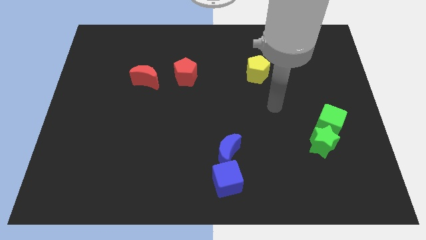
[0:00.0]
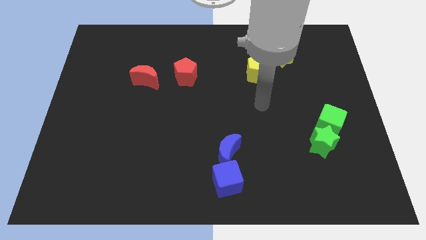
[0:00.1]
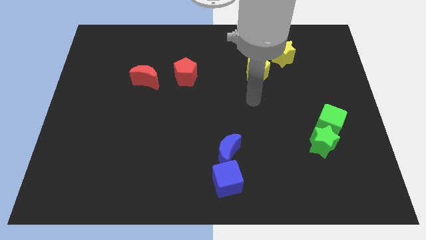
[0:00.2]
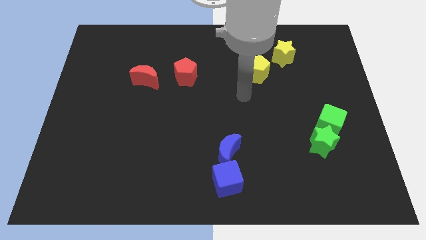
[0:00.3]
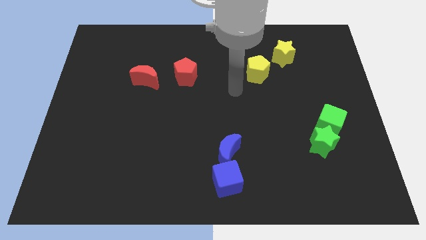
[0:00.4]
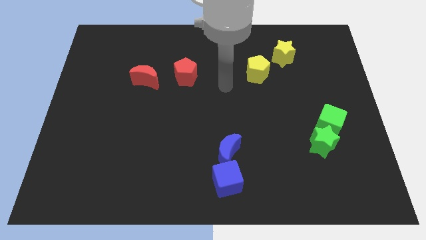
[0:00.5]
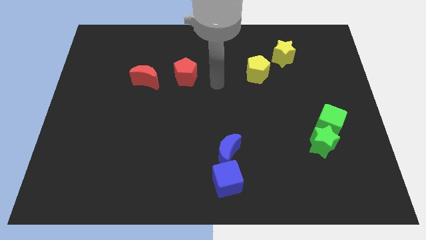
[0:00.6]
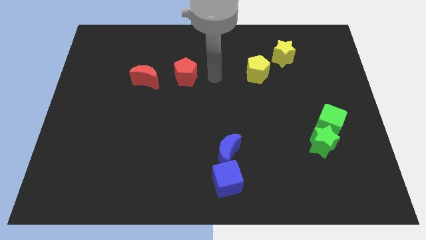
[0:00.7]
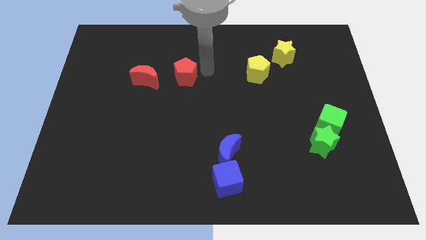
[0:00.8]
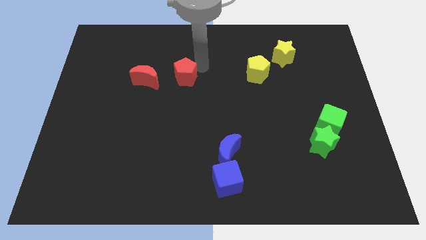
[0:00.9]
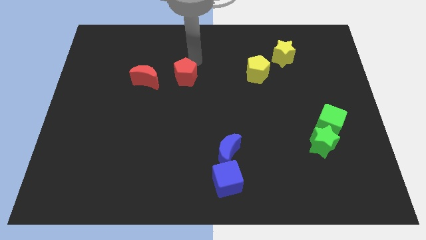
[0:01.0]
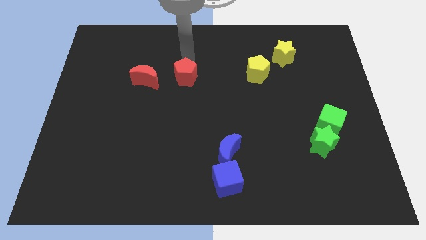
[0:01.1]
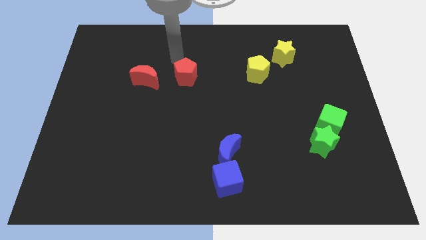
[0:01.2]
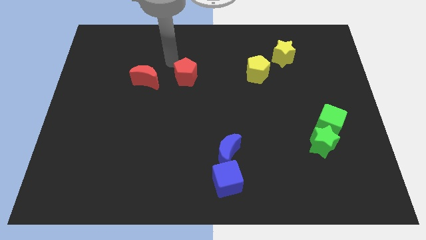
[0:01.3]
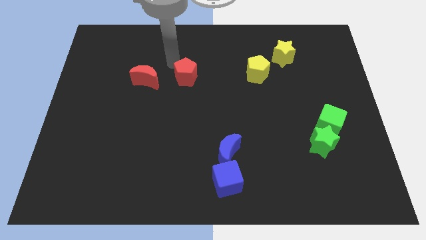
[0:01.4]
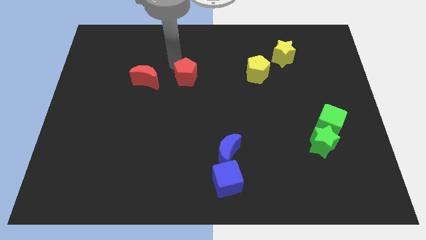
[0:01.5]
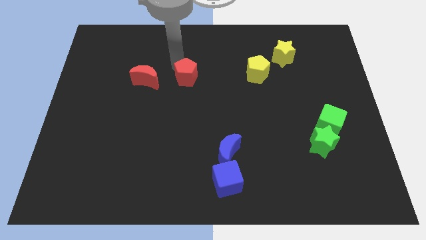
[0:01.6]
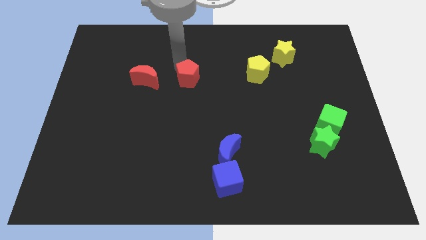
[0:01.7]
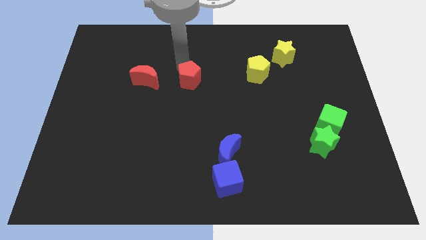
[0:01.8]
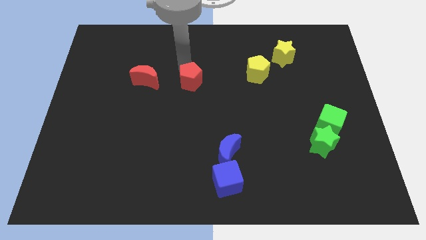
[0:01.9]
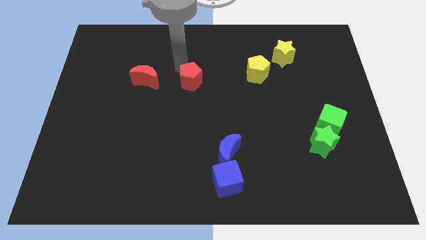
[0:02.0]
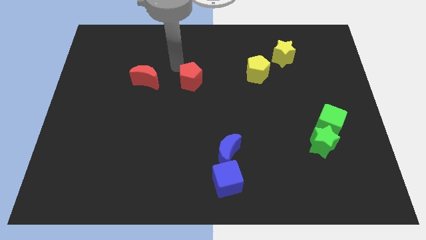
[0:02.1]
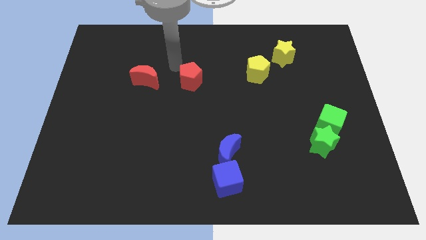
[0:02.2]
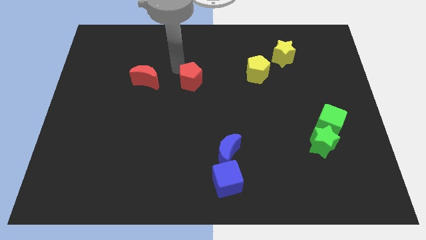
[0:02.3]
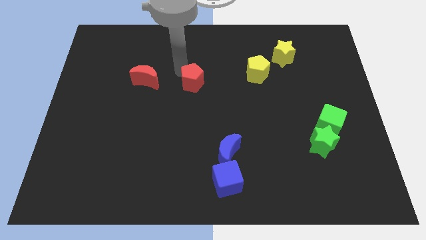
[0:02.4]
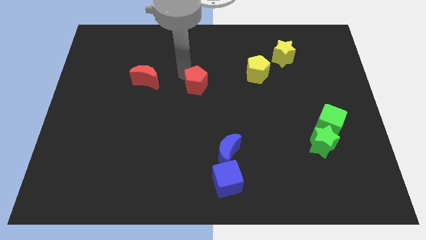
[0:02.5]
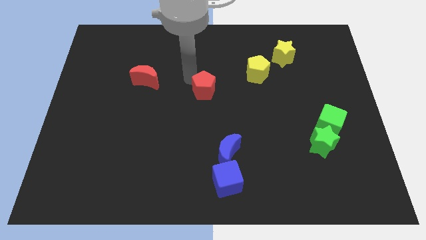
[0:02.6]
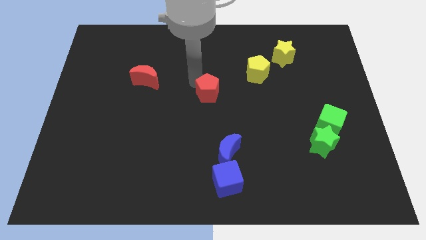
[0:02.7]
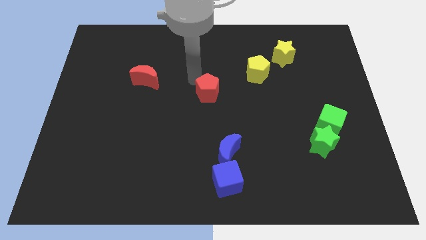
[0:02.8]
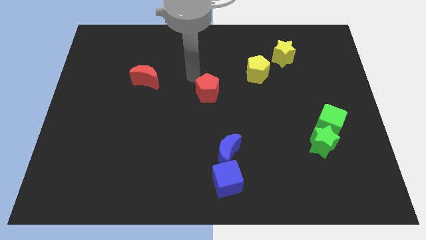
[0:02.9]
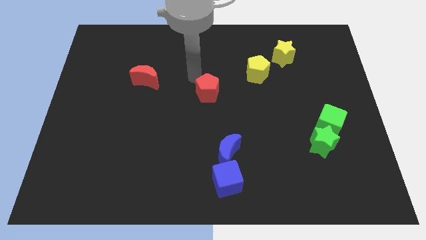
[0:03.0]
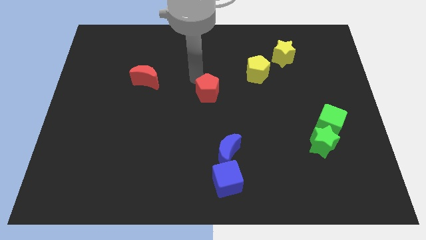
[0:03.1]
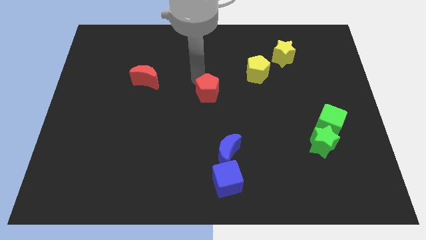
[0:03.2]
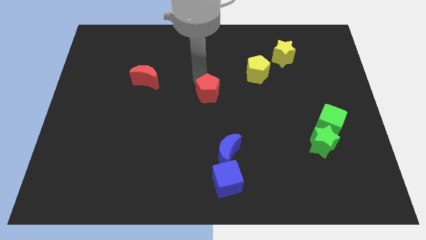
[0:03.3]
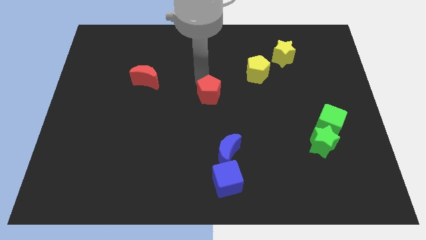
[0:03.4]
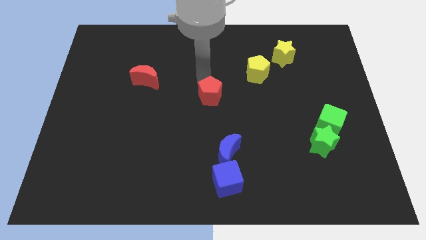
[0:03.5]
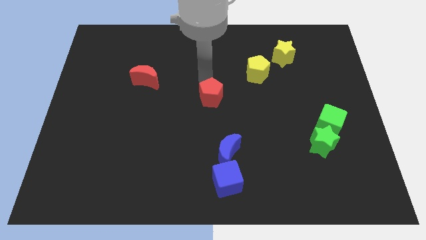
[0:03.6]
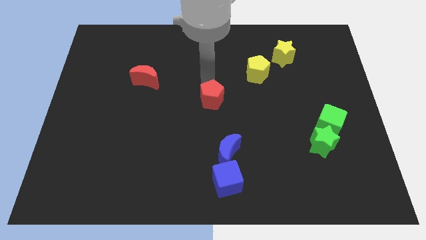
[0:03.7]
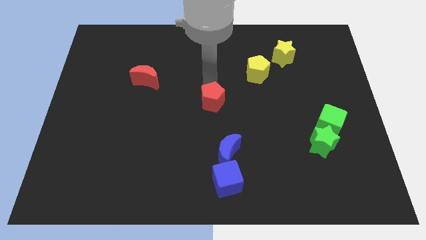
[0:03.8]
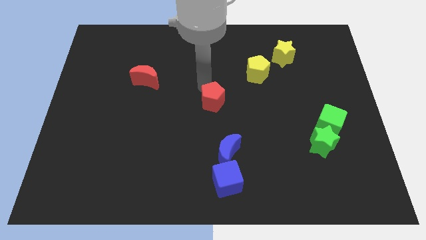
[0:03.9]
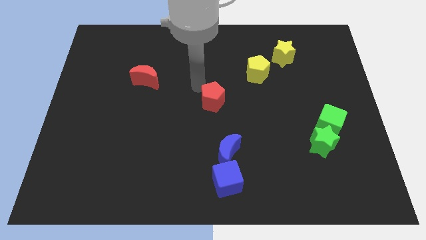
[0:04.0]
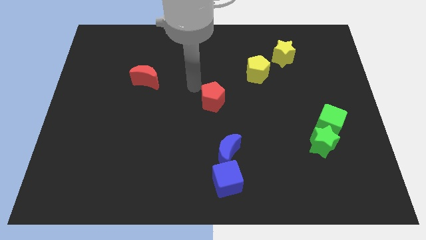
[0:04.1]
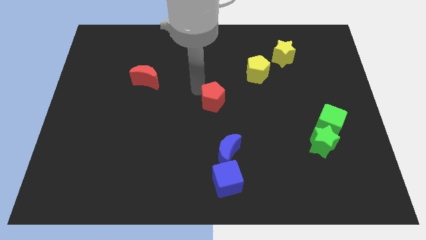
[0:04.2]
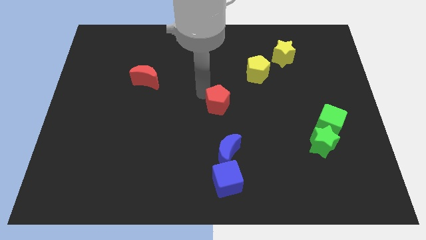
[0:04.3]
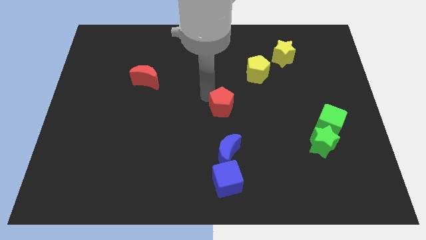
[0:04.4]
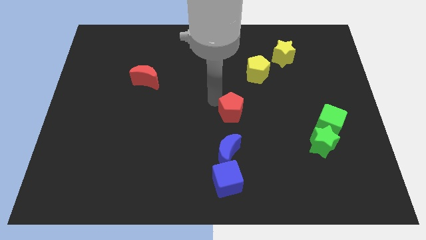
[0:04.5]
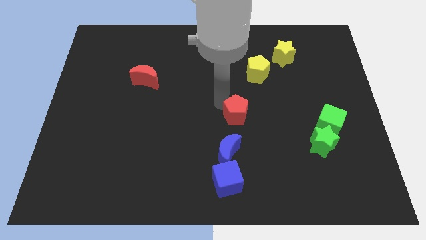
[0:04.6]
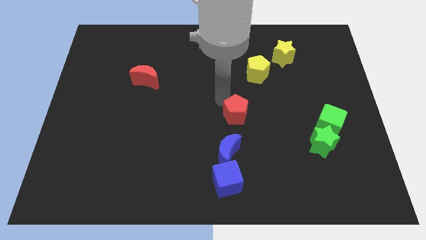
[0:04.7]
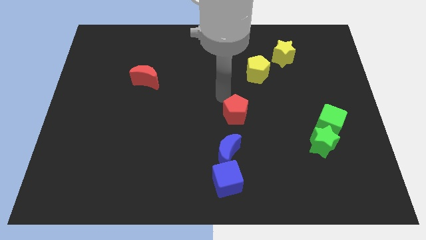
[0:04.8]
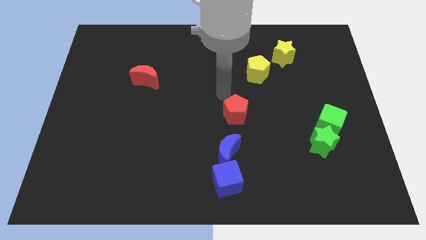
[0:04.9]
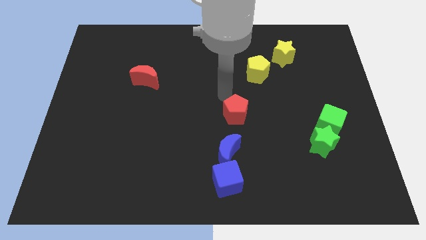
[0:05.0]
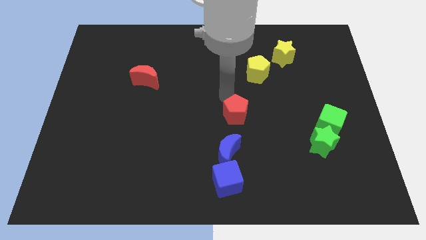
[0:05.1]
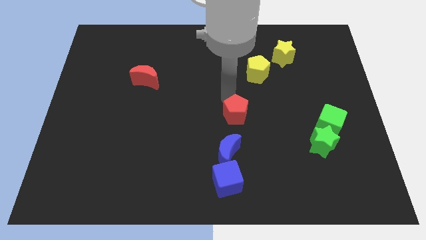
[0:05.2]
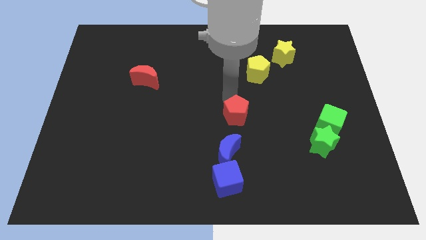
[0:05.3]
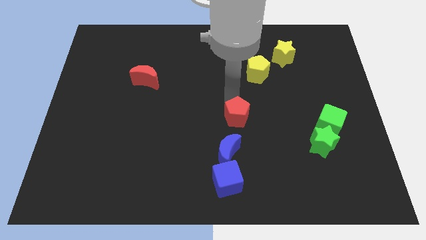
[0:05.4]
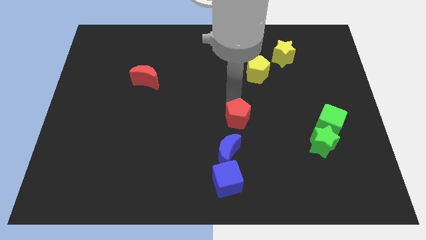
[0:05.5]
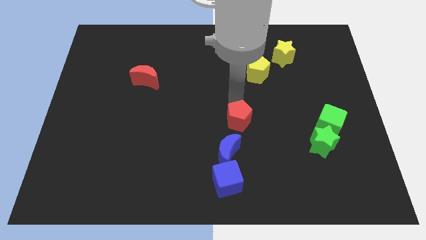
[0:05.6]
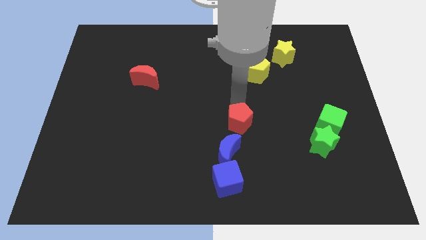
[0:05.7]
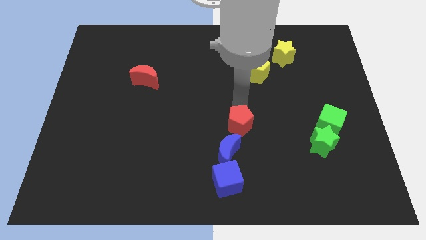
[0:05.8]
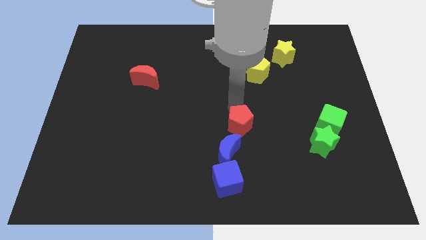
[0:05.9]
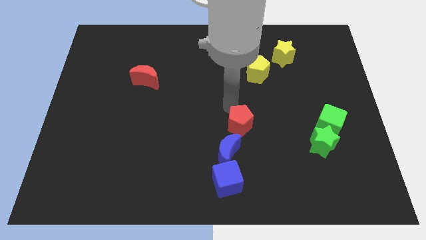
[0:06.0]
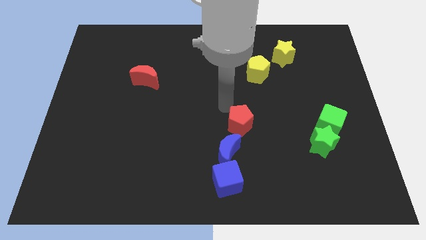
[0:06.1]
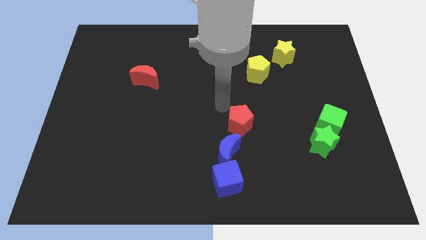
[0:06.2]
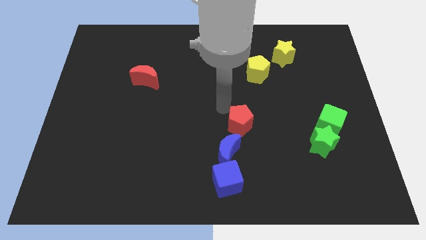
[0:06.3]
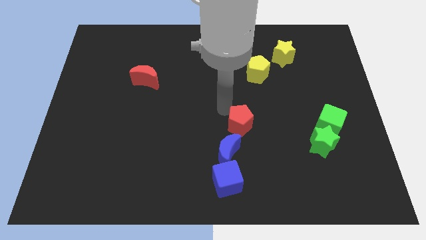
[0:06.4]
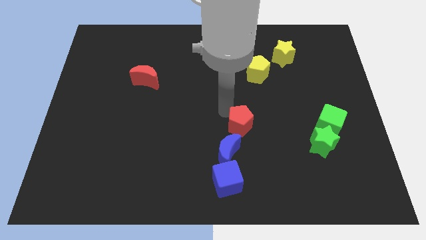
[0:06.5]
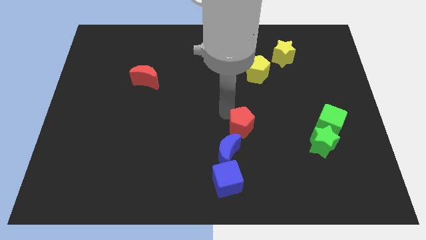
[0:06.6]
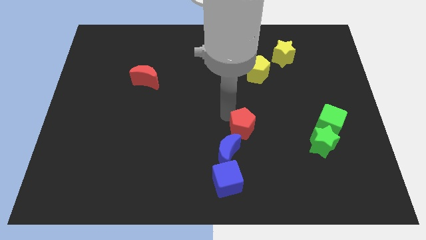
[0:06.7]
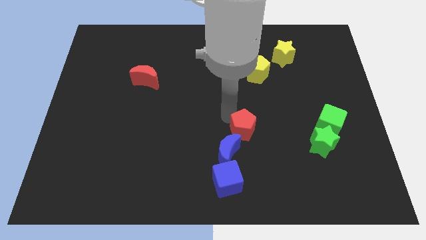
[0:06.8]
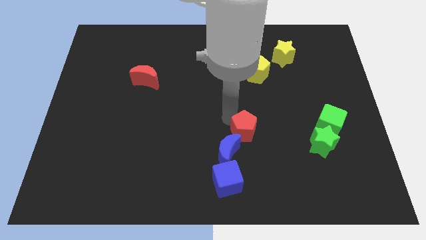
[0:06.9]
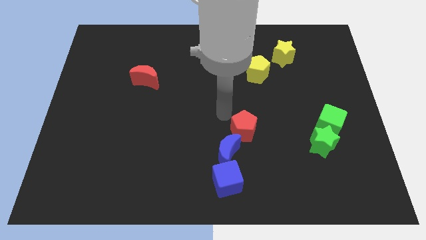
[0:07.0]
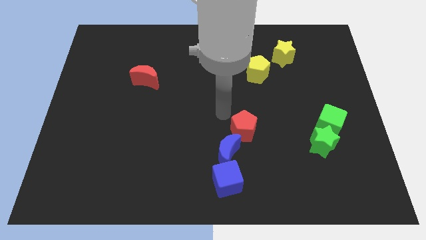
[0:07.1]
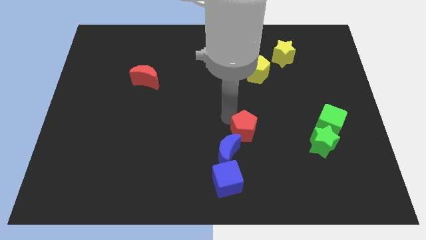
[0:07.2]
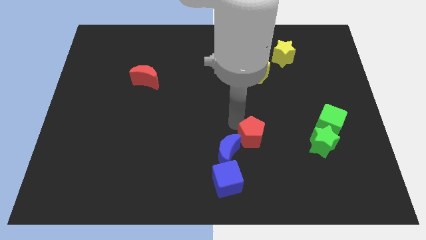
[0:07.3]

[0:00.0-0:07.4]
slide the red pentagon right of the blue moon
